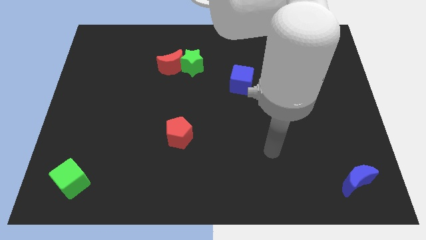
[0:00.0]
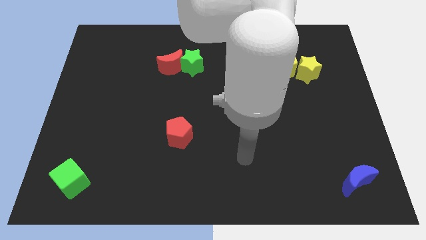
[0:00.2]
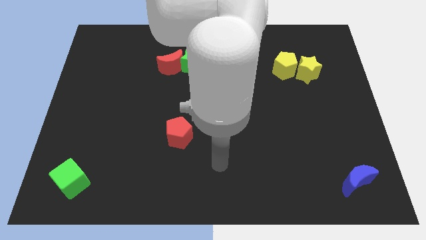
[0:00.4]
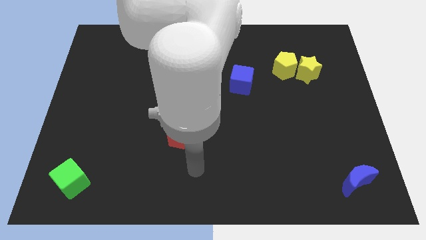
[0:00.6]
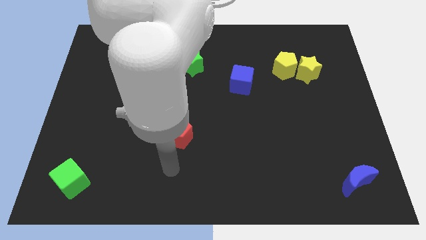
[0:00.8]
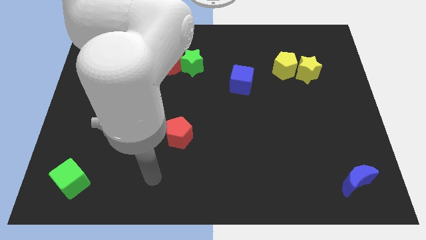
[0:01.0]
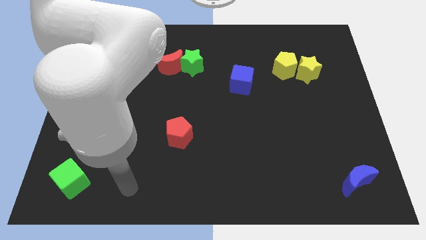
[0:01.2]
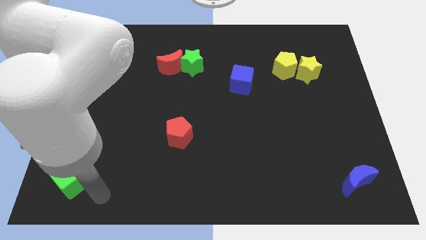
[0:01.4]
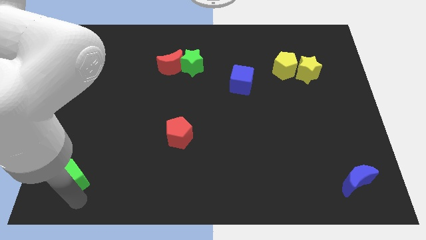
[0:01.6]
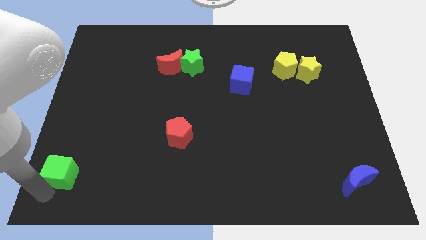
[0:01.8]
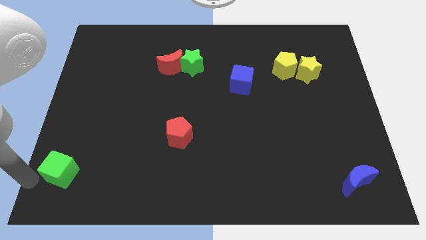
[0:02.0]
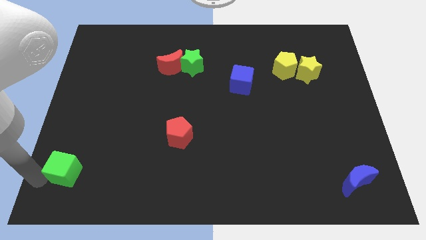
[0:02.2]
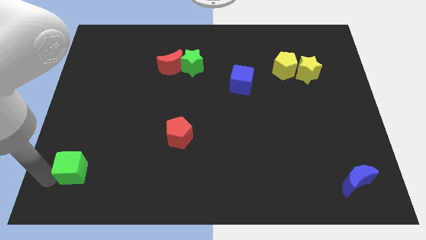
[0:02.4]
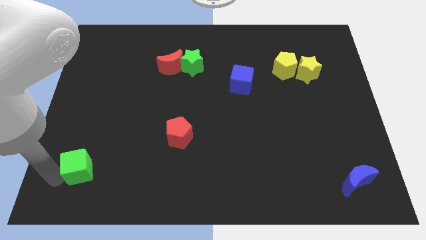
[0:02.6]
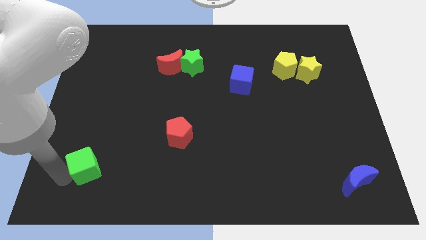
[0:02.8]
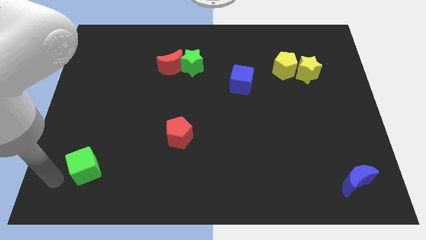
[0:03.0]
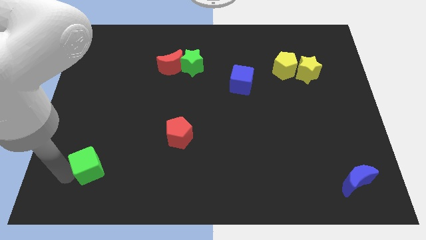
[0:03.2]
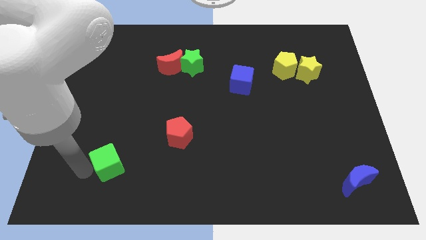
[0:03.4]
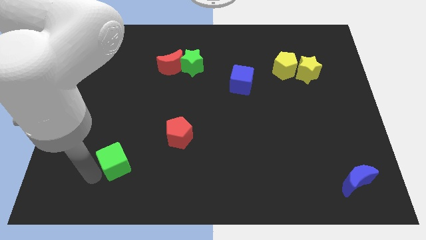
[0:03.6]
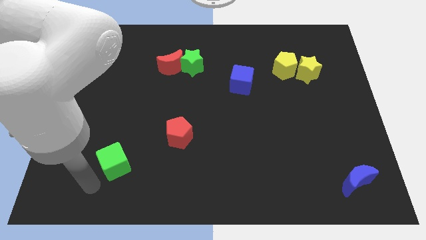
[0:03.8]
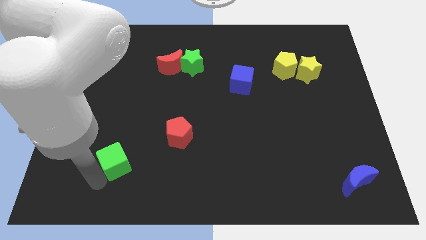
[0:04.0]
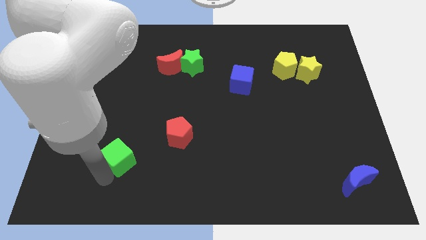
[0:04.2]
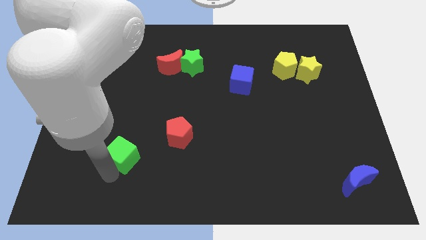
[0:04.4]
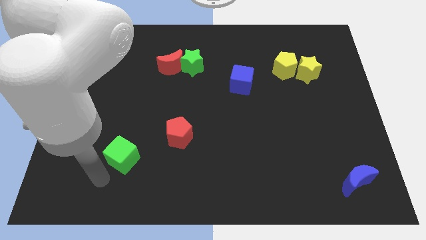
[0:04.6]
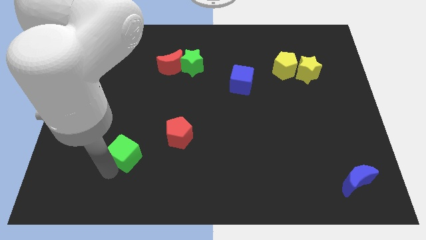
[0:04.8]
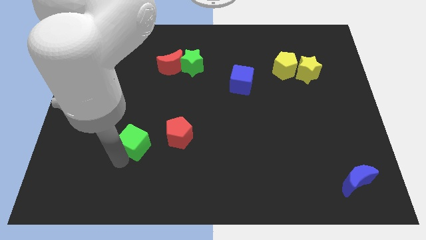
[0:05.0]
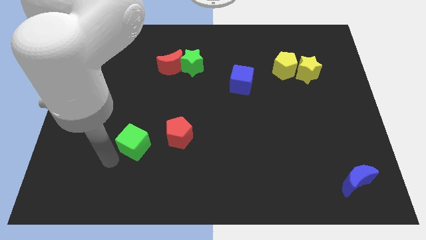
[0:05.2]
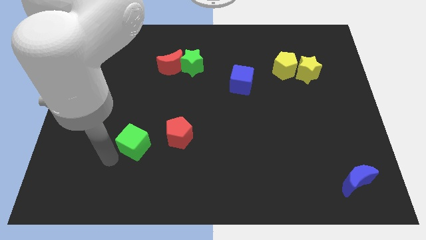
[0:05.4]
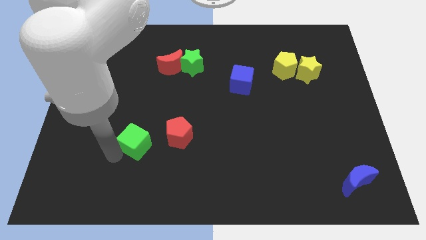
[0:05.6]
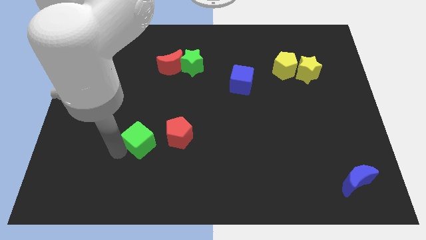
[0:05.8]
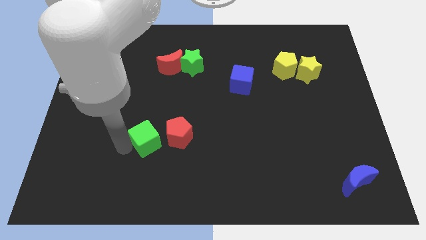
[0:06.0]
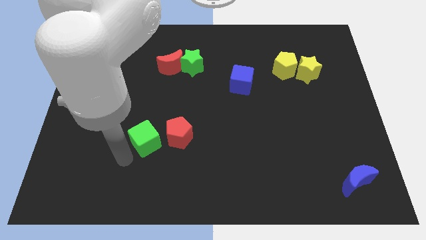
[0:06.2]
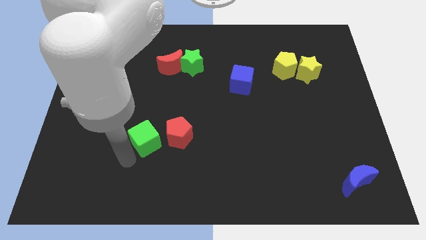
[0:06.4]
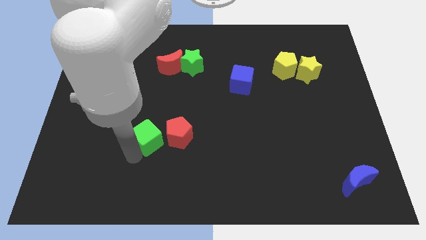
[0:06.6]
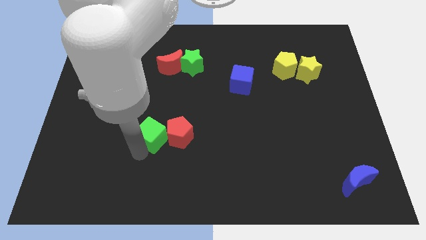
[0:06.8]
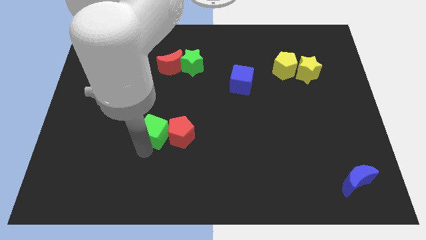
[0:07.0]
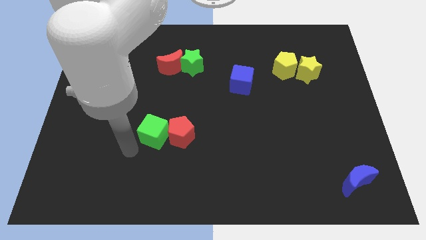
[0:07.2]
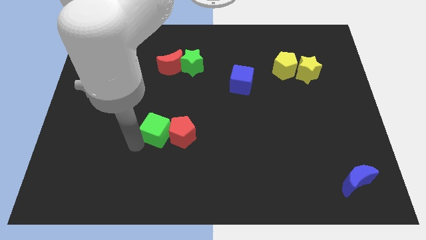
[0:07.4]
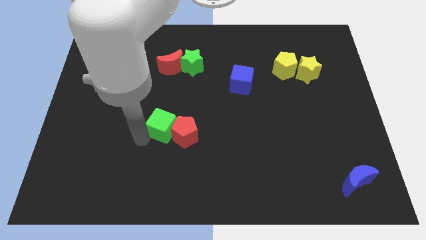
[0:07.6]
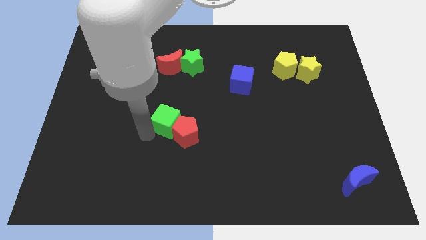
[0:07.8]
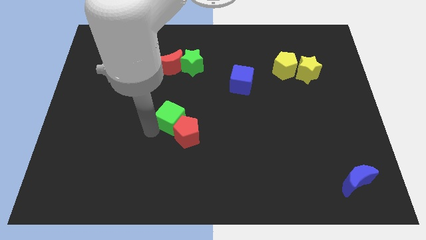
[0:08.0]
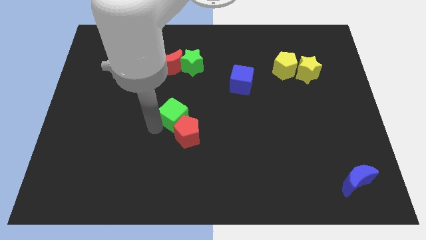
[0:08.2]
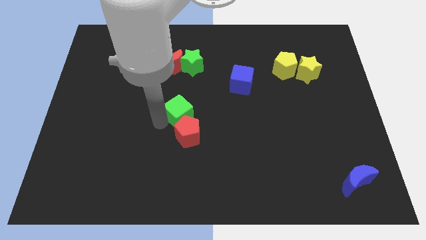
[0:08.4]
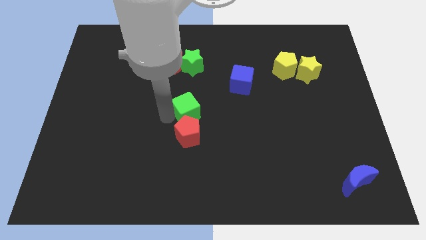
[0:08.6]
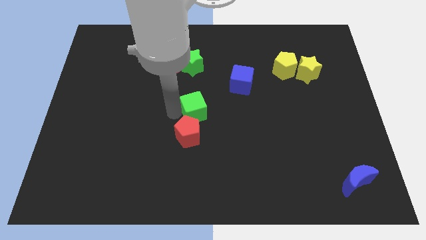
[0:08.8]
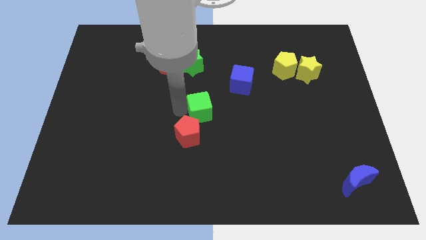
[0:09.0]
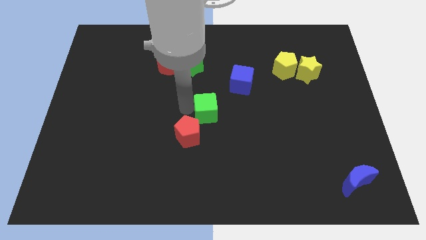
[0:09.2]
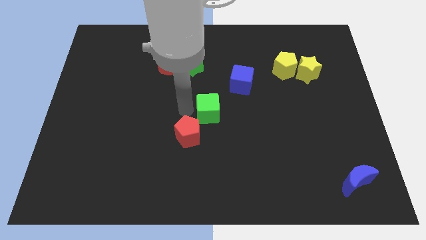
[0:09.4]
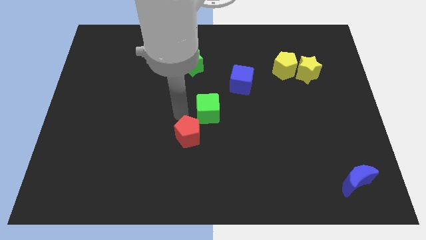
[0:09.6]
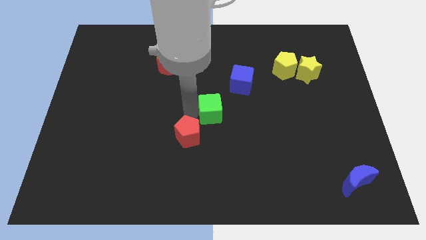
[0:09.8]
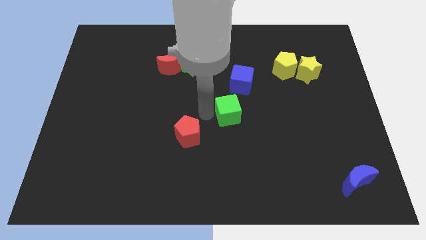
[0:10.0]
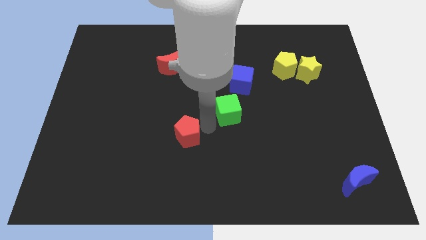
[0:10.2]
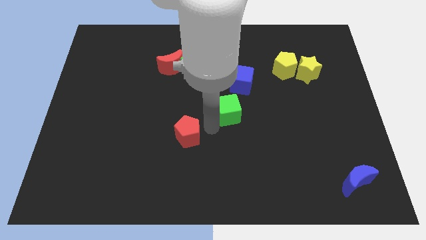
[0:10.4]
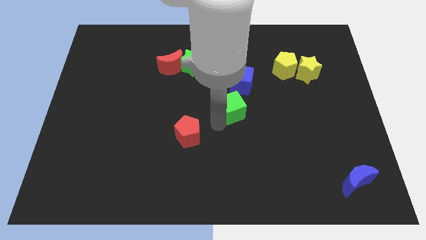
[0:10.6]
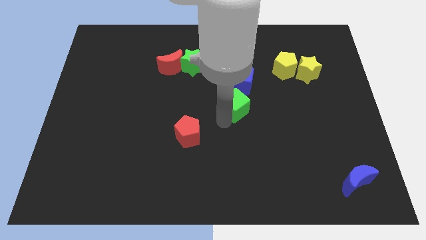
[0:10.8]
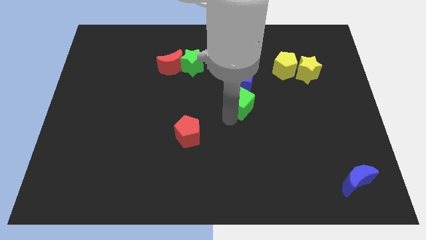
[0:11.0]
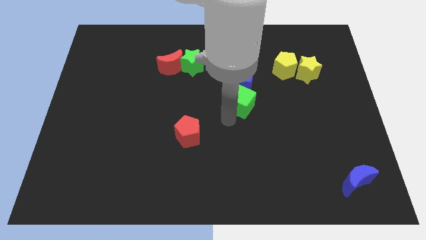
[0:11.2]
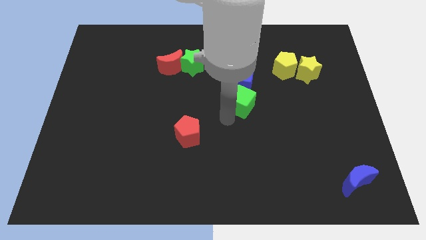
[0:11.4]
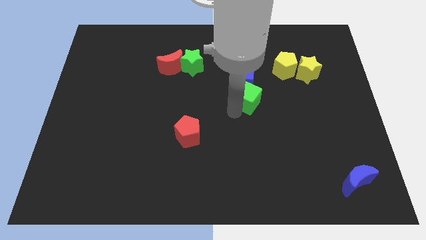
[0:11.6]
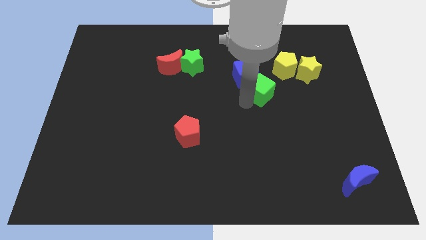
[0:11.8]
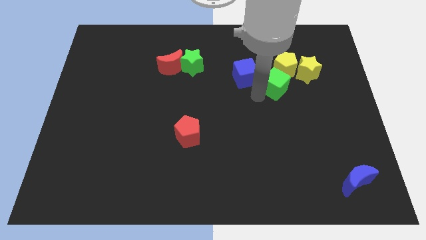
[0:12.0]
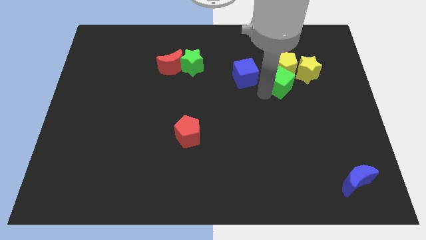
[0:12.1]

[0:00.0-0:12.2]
push the green cube close to the yellow pentagon

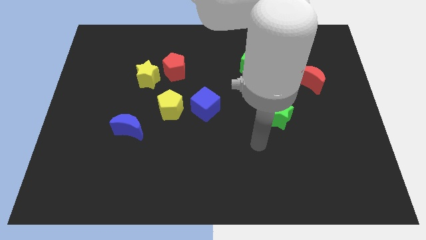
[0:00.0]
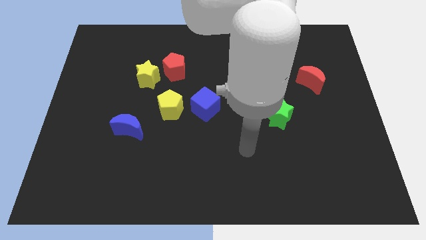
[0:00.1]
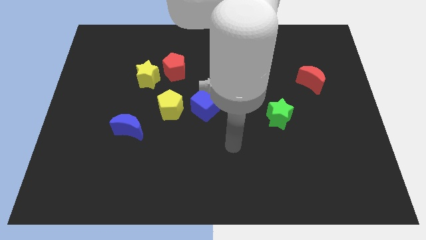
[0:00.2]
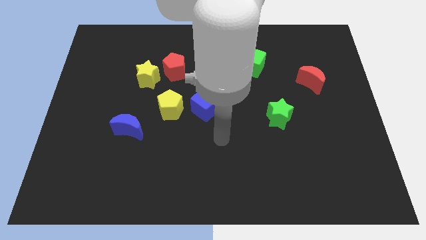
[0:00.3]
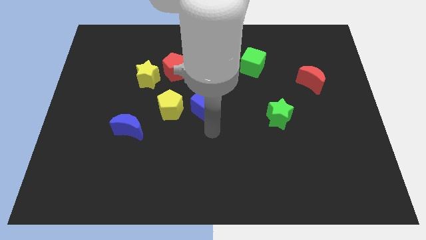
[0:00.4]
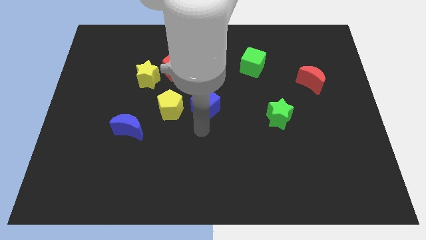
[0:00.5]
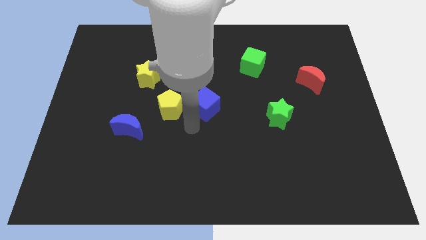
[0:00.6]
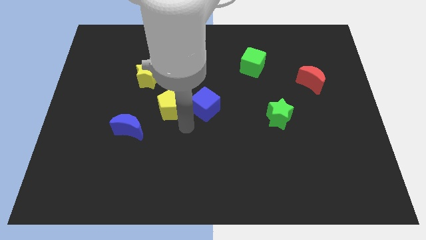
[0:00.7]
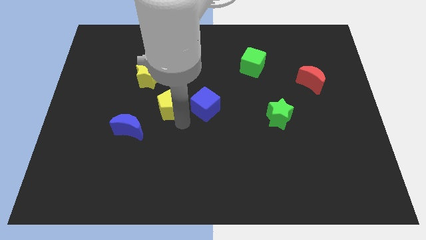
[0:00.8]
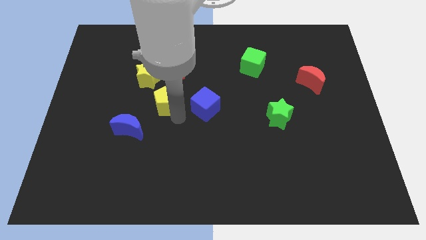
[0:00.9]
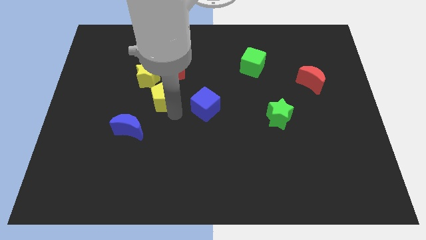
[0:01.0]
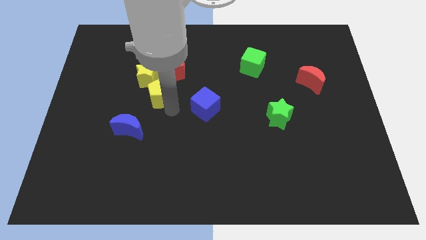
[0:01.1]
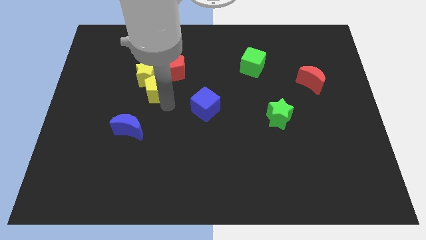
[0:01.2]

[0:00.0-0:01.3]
put the yellow pentagon towards the yellow star
